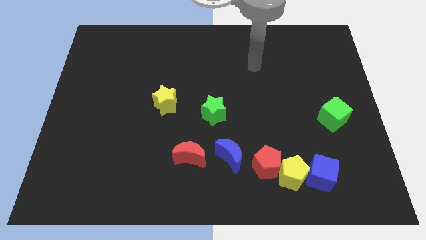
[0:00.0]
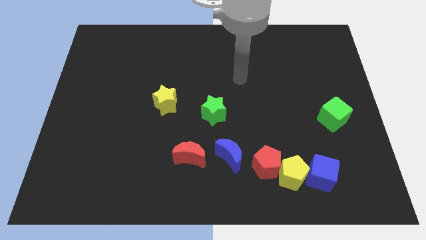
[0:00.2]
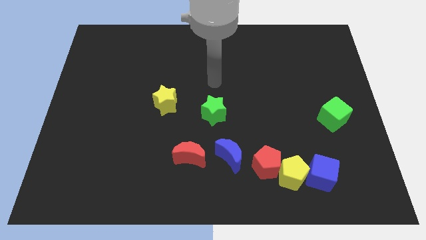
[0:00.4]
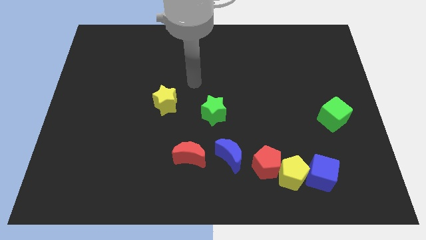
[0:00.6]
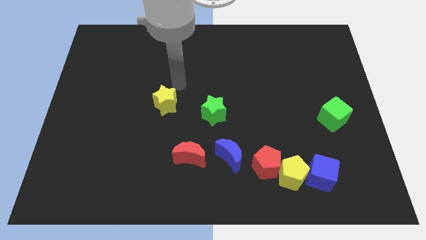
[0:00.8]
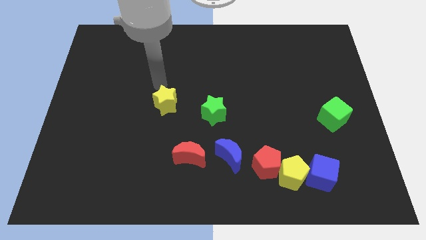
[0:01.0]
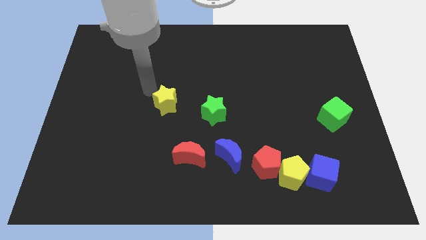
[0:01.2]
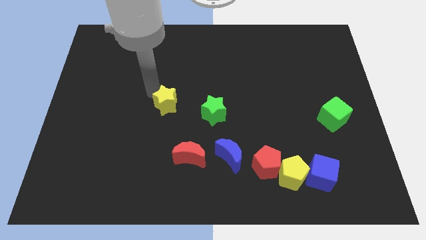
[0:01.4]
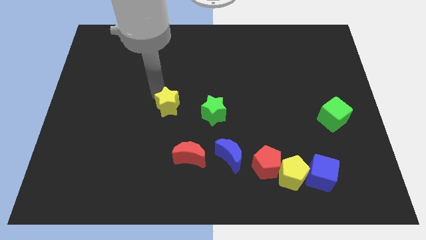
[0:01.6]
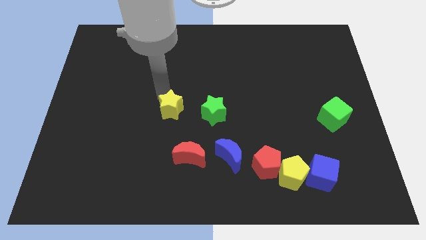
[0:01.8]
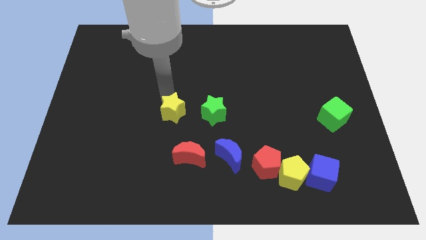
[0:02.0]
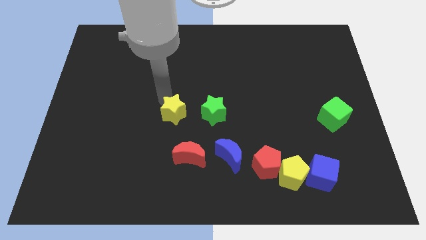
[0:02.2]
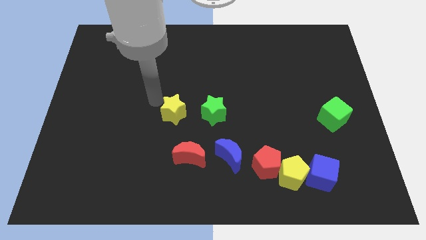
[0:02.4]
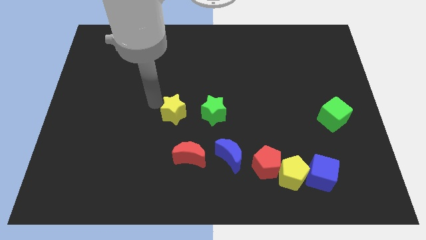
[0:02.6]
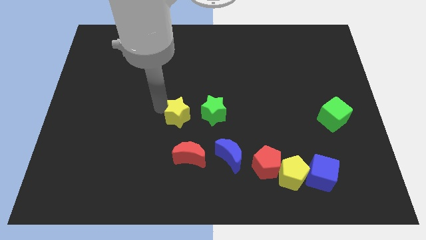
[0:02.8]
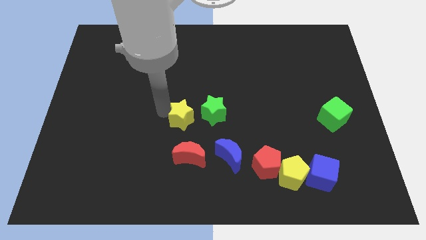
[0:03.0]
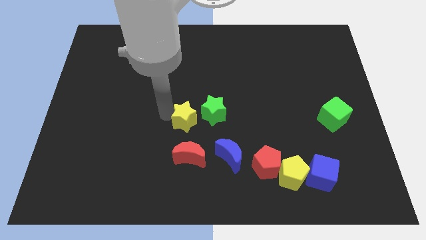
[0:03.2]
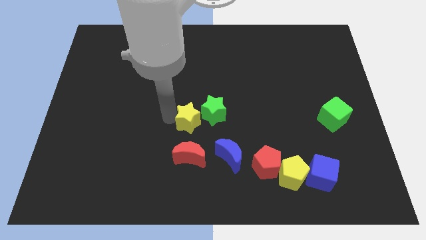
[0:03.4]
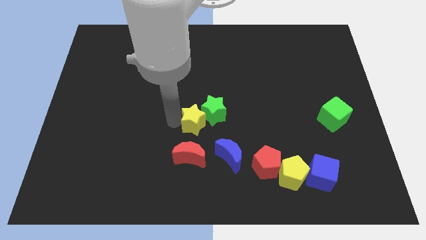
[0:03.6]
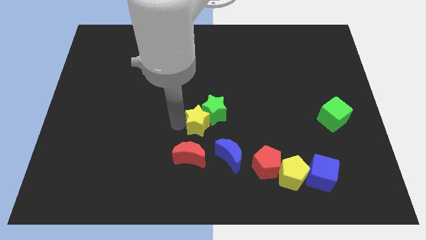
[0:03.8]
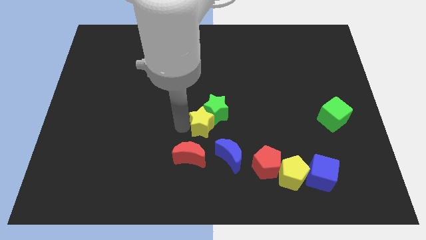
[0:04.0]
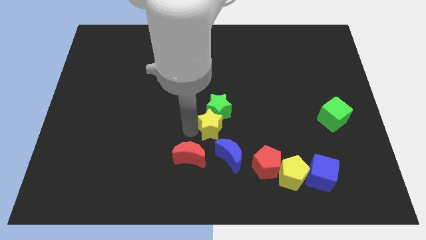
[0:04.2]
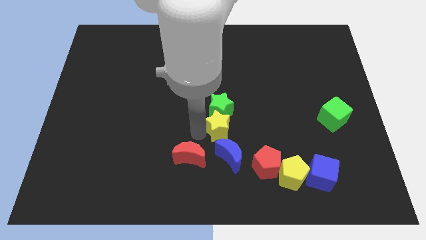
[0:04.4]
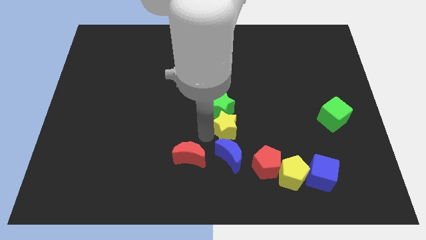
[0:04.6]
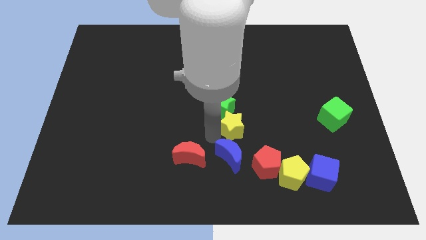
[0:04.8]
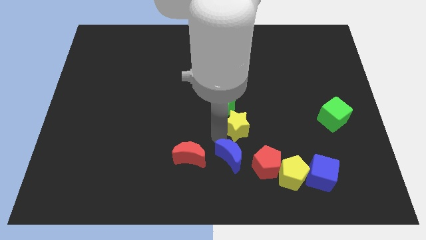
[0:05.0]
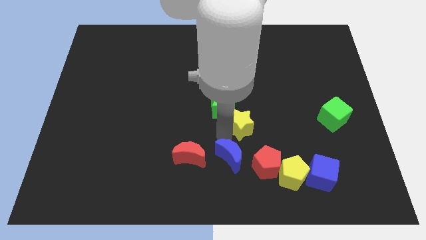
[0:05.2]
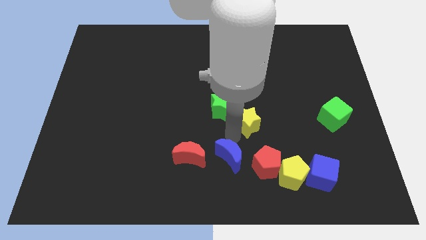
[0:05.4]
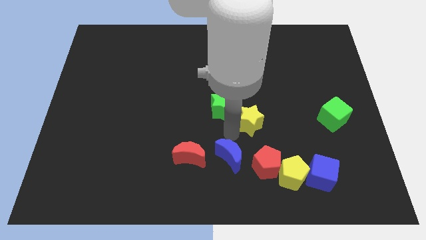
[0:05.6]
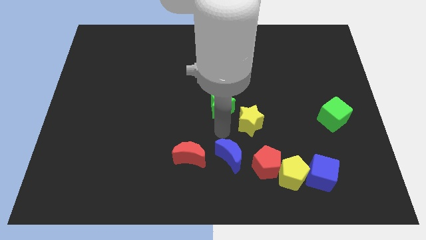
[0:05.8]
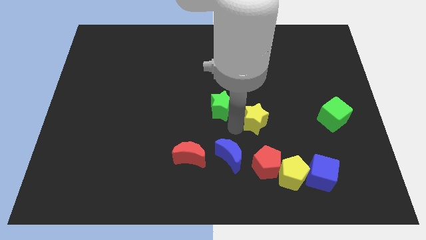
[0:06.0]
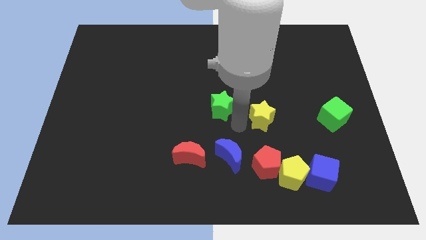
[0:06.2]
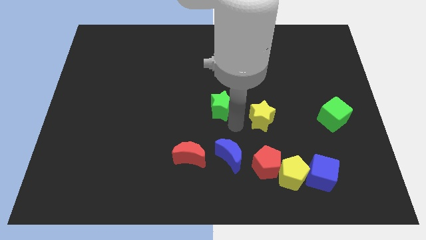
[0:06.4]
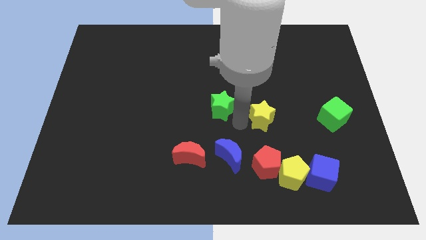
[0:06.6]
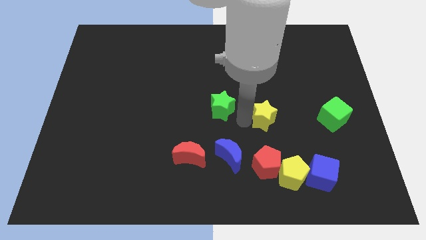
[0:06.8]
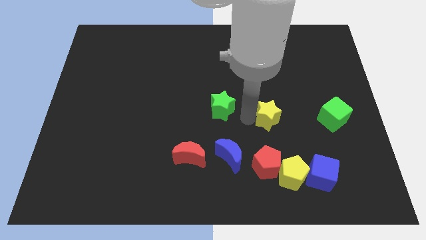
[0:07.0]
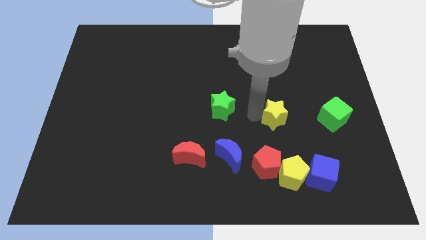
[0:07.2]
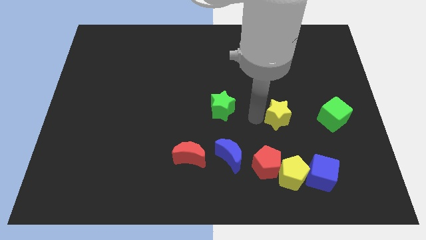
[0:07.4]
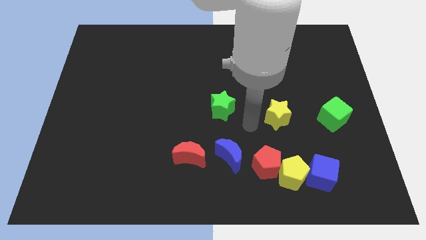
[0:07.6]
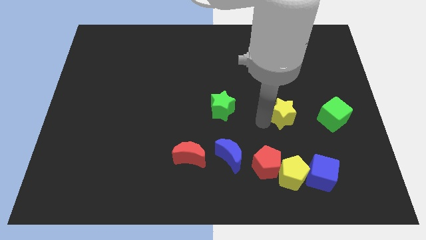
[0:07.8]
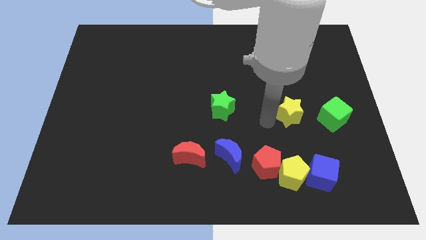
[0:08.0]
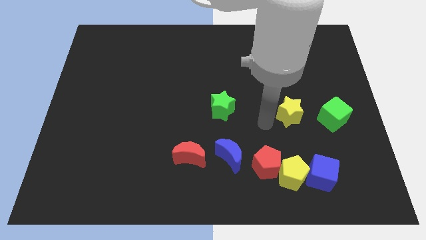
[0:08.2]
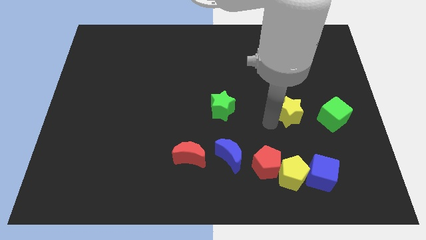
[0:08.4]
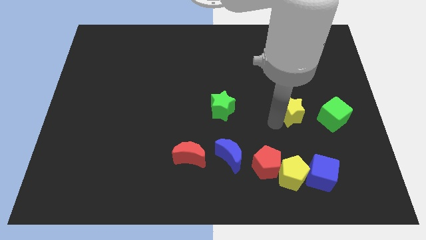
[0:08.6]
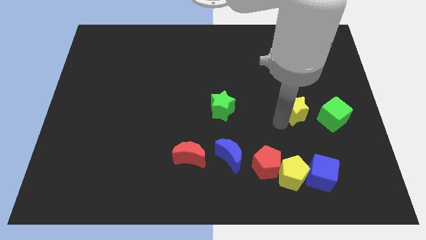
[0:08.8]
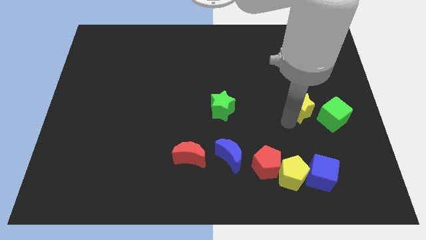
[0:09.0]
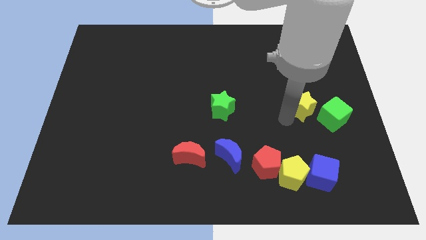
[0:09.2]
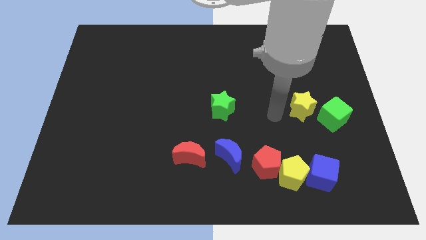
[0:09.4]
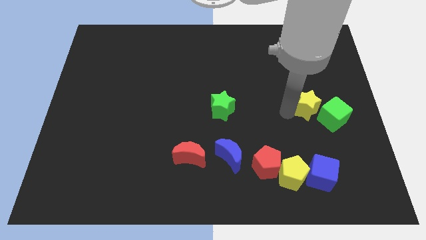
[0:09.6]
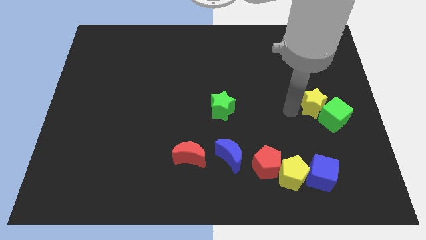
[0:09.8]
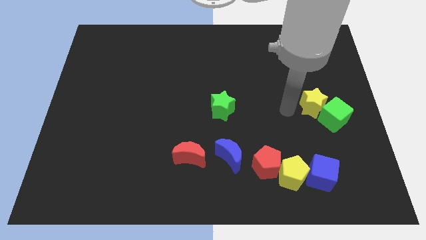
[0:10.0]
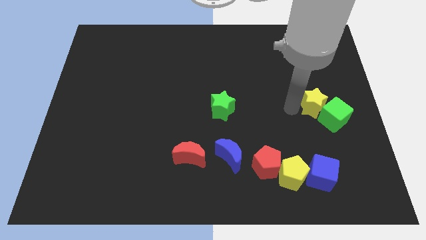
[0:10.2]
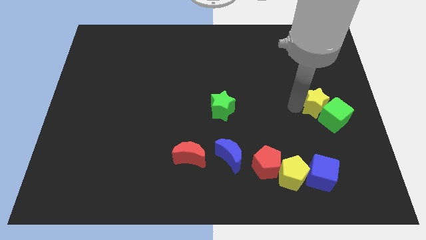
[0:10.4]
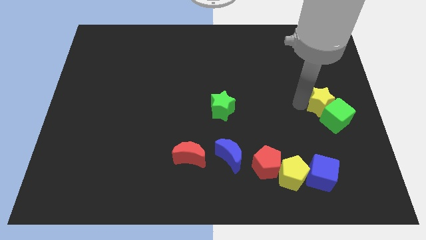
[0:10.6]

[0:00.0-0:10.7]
move the yellow star to the center right

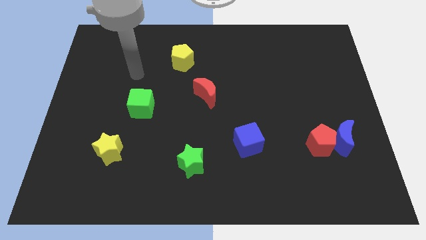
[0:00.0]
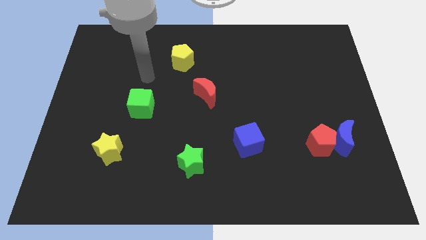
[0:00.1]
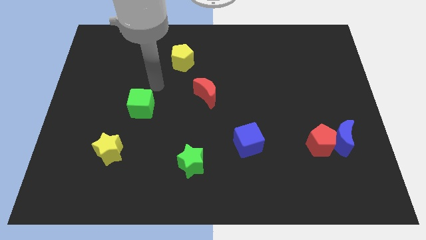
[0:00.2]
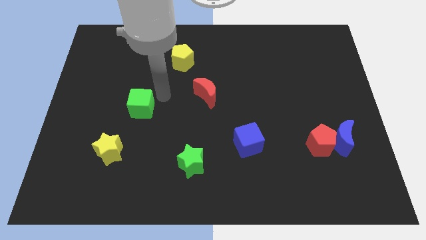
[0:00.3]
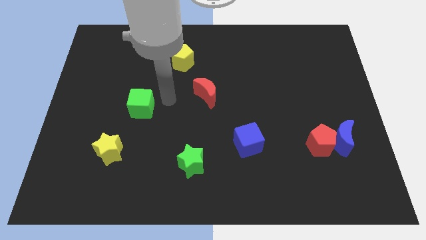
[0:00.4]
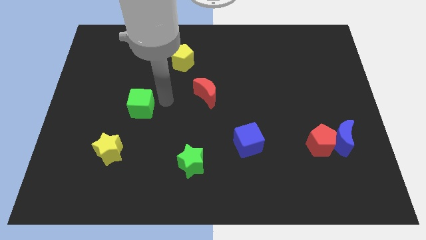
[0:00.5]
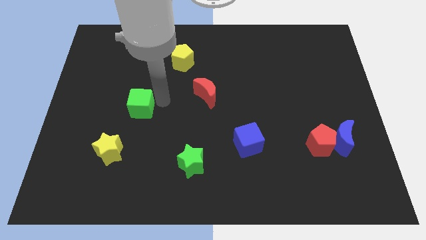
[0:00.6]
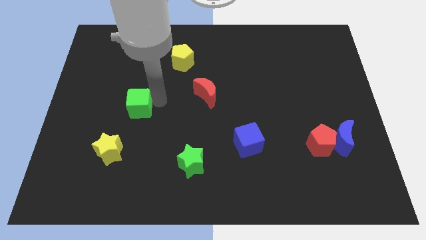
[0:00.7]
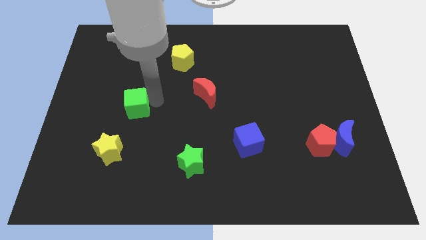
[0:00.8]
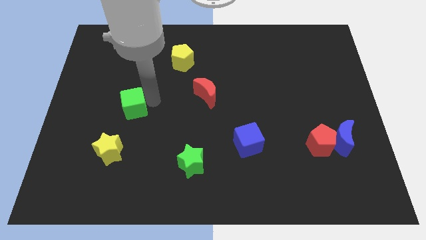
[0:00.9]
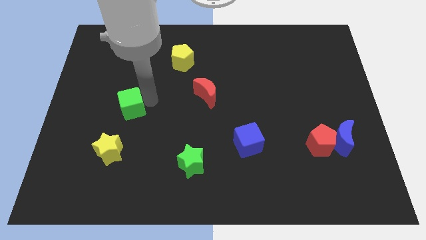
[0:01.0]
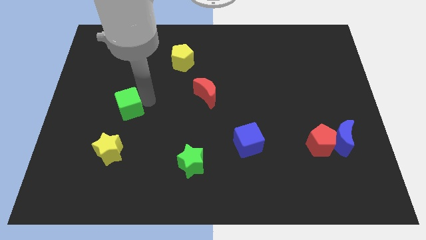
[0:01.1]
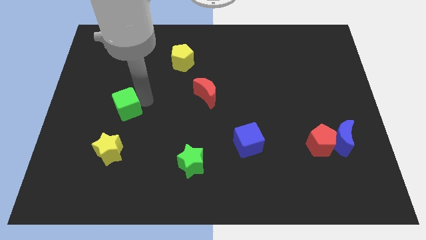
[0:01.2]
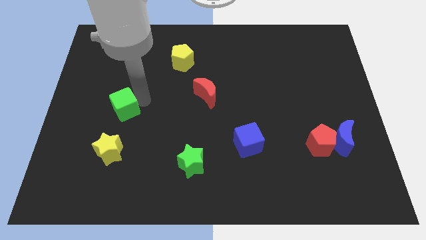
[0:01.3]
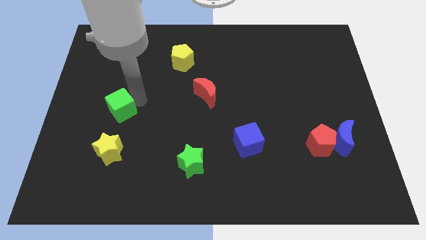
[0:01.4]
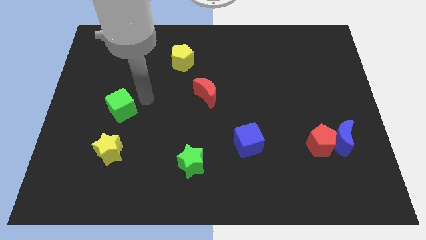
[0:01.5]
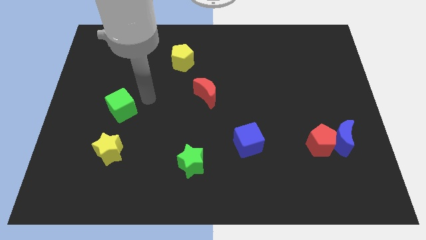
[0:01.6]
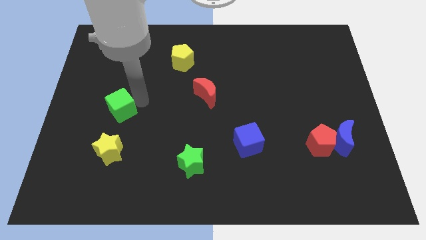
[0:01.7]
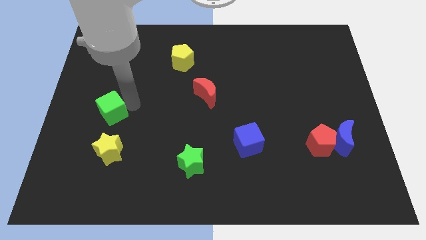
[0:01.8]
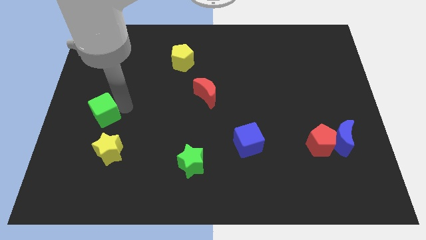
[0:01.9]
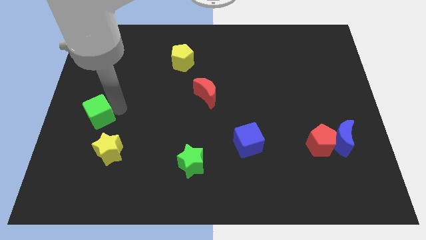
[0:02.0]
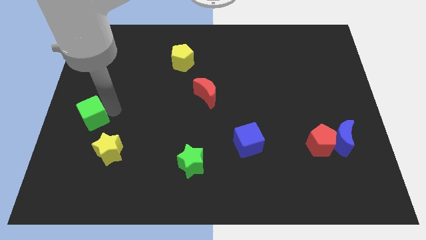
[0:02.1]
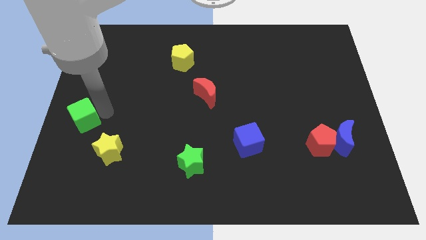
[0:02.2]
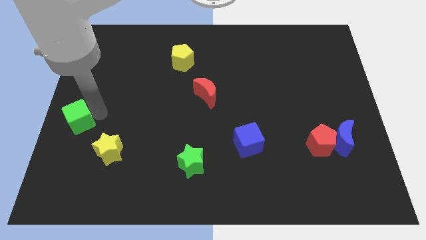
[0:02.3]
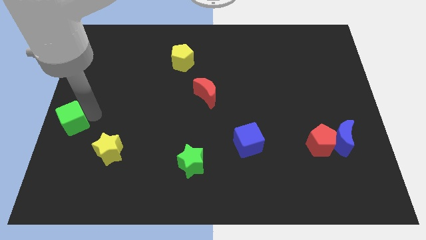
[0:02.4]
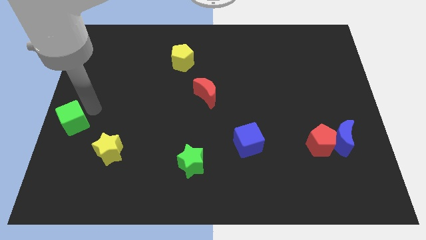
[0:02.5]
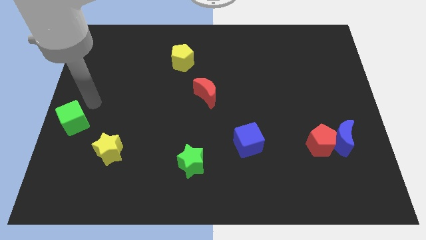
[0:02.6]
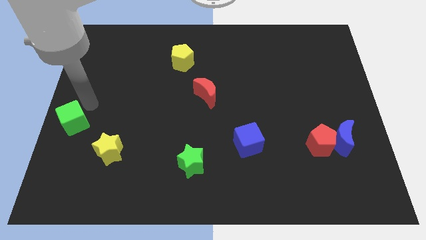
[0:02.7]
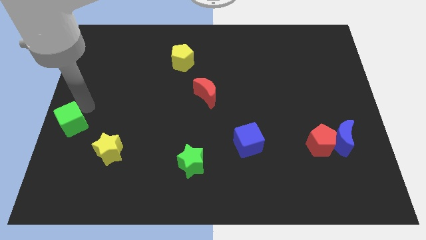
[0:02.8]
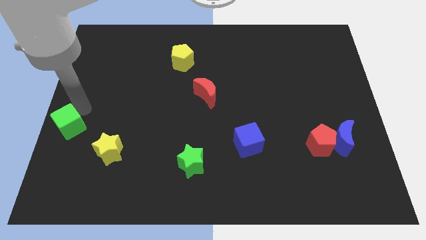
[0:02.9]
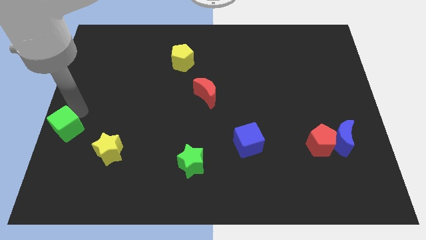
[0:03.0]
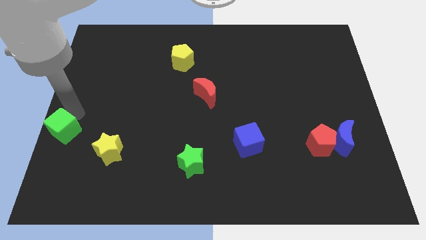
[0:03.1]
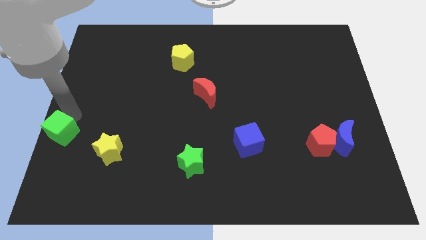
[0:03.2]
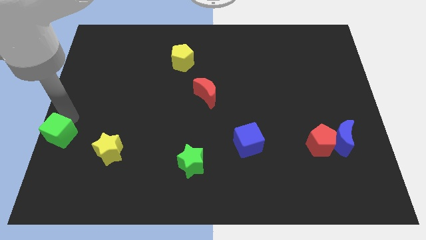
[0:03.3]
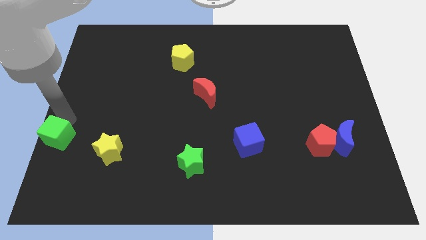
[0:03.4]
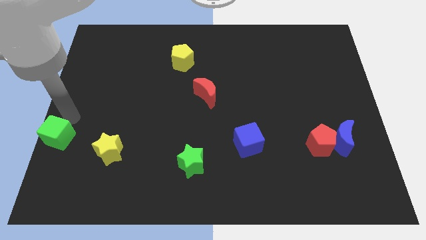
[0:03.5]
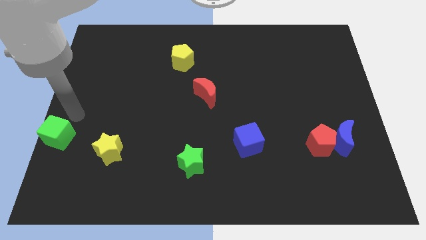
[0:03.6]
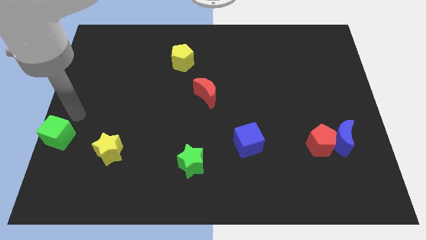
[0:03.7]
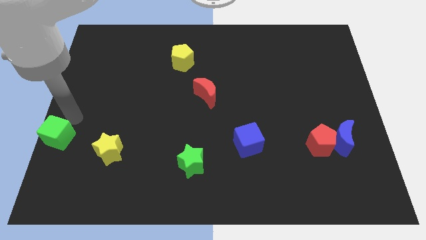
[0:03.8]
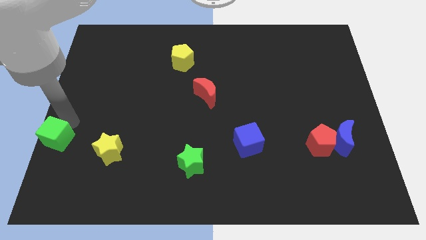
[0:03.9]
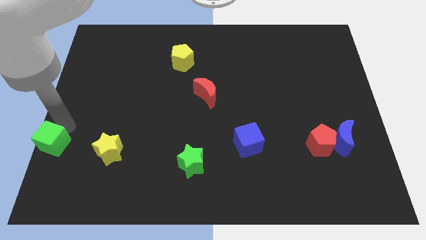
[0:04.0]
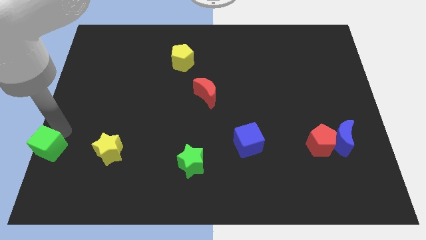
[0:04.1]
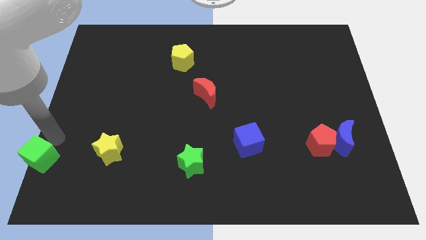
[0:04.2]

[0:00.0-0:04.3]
put the green cube to the bottom left of the board
